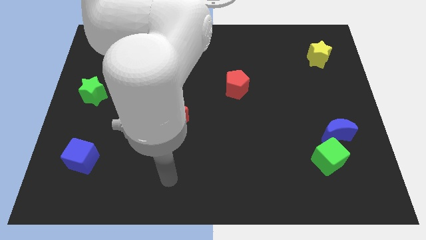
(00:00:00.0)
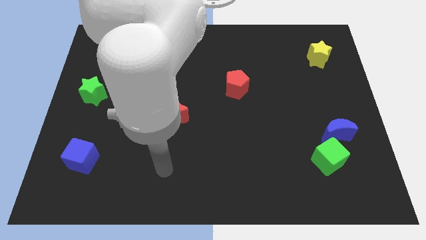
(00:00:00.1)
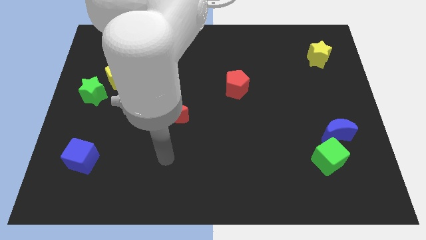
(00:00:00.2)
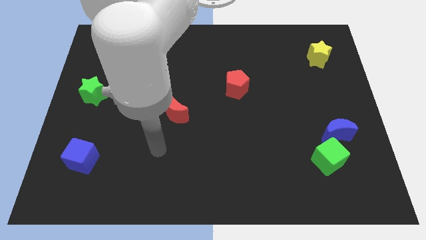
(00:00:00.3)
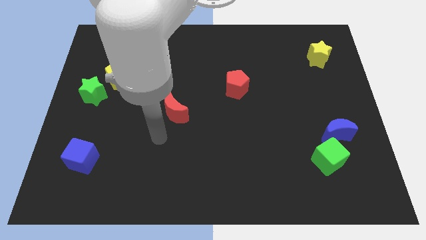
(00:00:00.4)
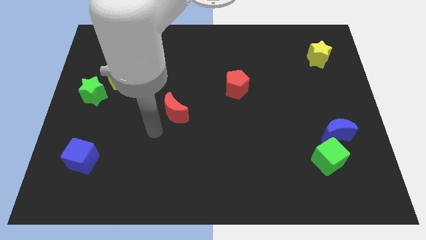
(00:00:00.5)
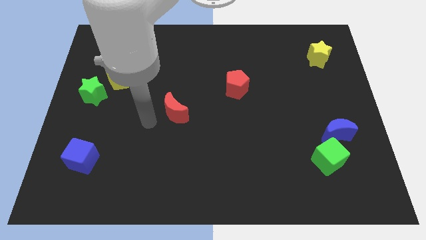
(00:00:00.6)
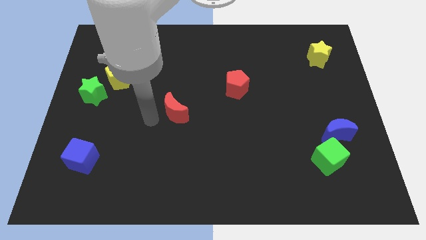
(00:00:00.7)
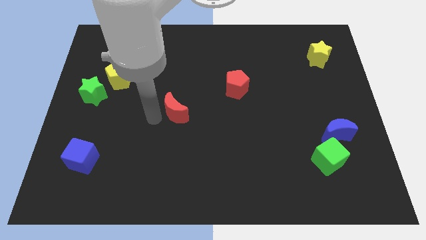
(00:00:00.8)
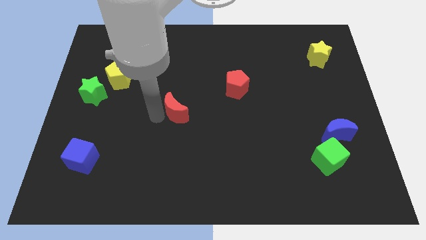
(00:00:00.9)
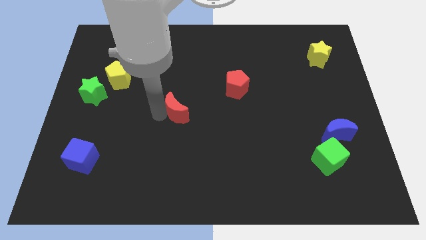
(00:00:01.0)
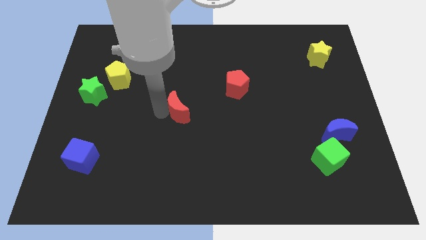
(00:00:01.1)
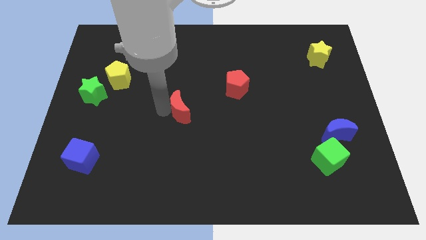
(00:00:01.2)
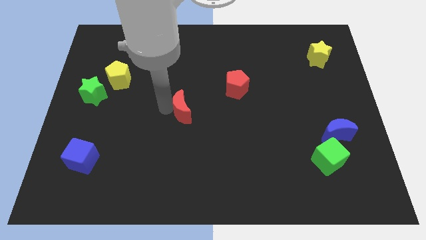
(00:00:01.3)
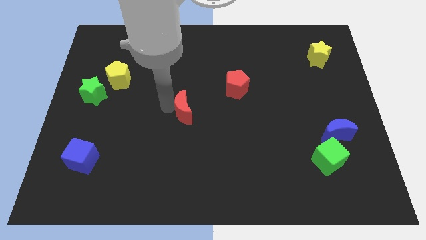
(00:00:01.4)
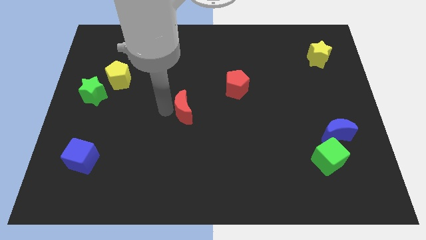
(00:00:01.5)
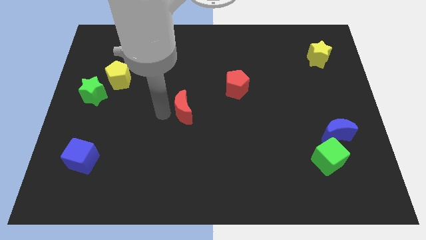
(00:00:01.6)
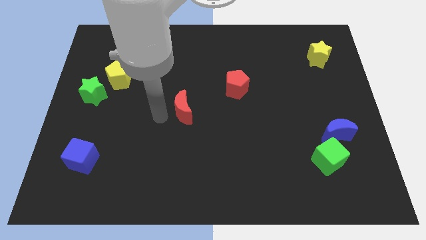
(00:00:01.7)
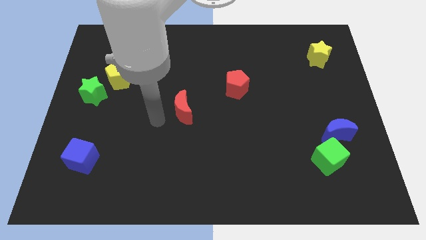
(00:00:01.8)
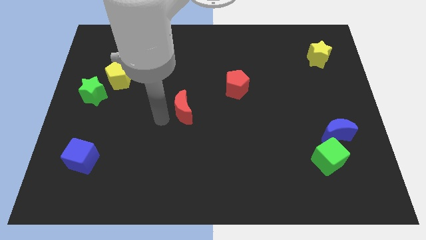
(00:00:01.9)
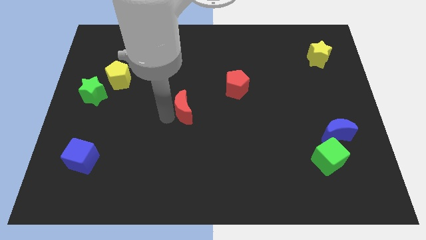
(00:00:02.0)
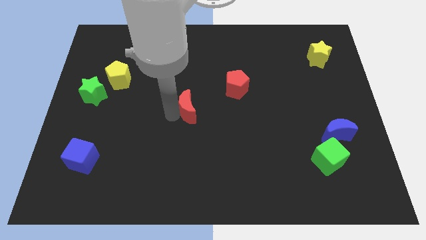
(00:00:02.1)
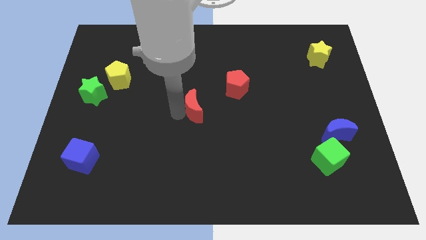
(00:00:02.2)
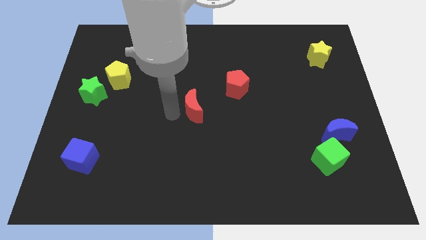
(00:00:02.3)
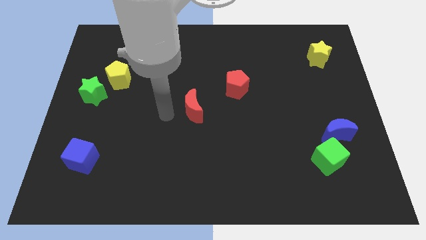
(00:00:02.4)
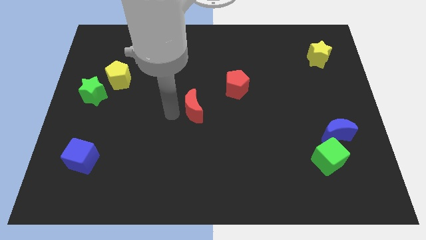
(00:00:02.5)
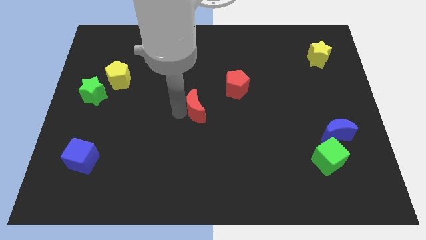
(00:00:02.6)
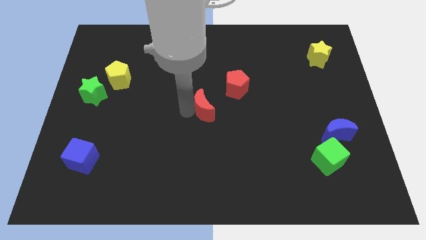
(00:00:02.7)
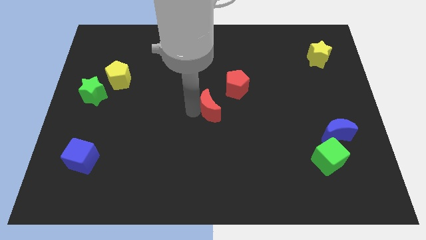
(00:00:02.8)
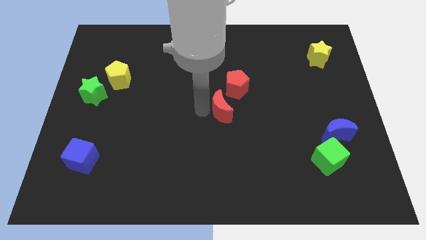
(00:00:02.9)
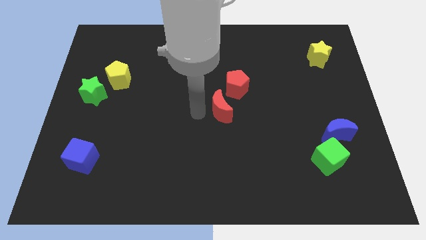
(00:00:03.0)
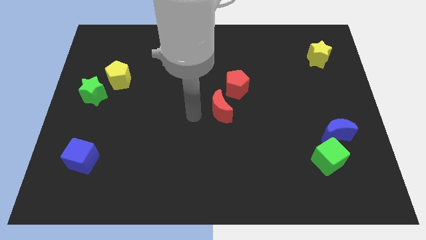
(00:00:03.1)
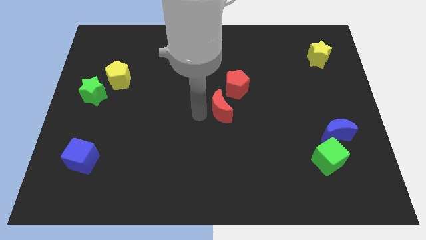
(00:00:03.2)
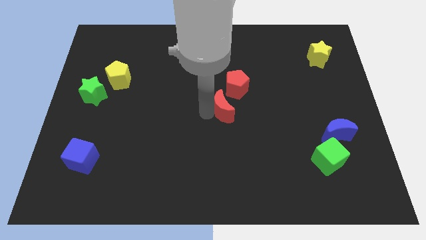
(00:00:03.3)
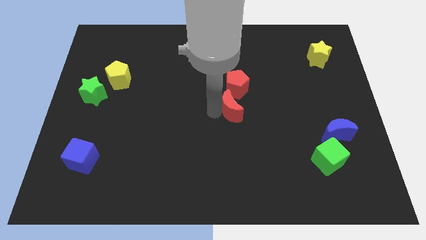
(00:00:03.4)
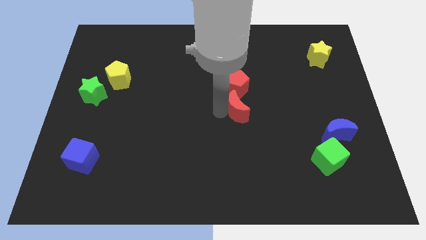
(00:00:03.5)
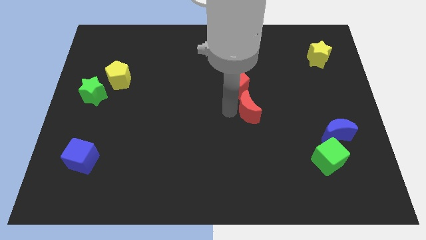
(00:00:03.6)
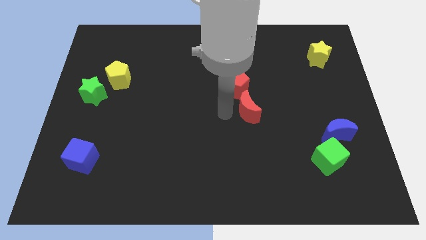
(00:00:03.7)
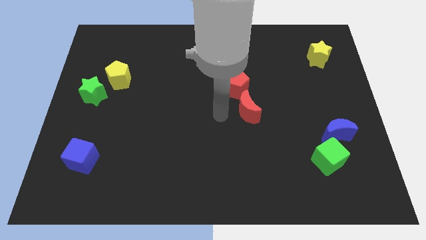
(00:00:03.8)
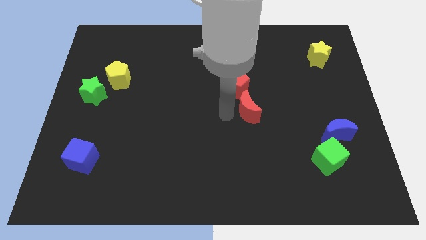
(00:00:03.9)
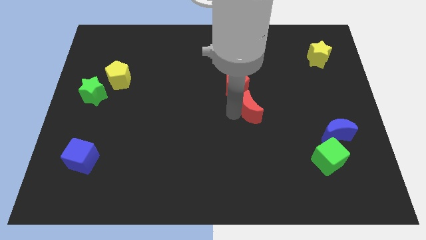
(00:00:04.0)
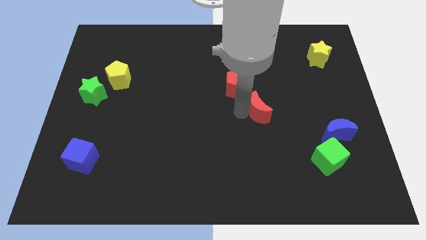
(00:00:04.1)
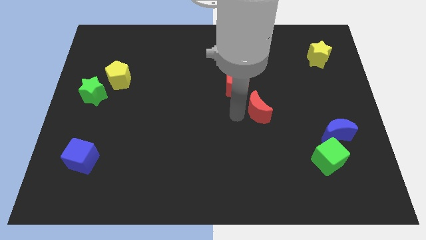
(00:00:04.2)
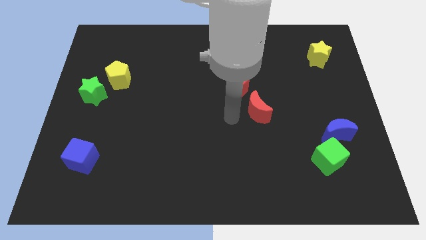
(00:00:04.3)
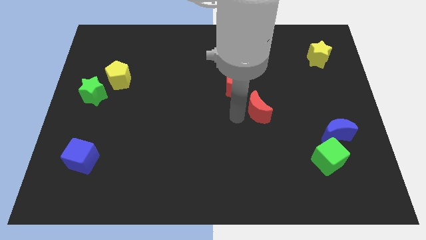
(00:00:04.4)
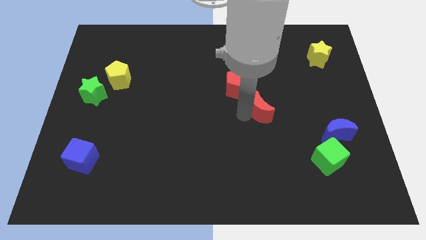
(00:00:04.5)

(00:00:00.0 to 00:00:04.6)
push the red moon right

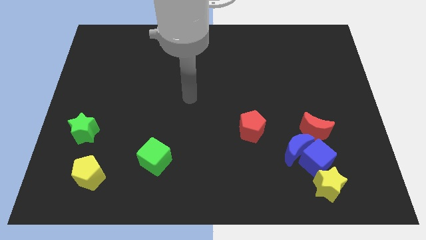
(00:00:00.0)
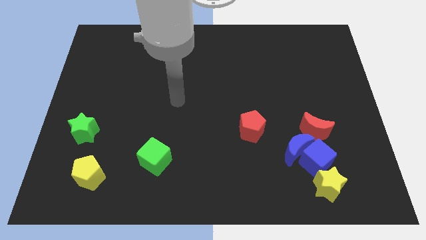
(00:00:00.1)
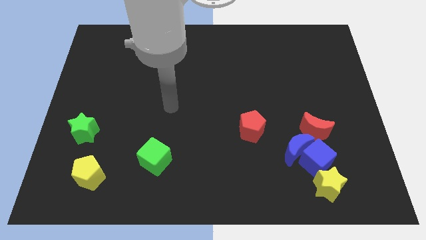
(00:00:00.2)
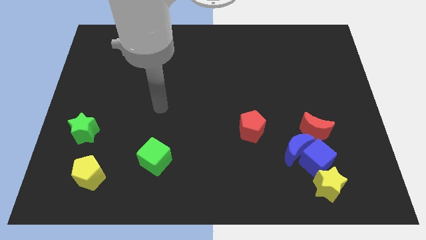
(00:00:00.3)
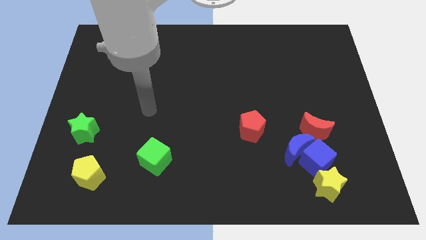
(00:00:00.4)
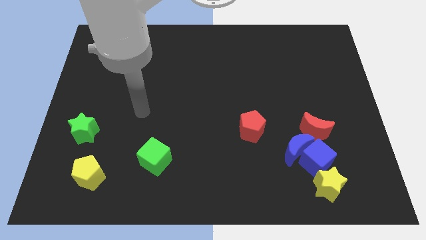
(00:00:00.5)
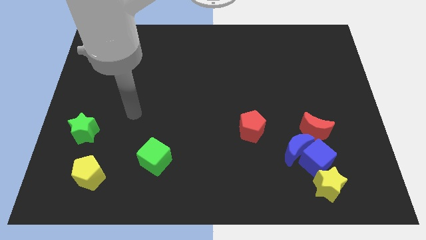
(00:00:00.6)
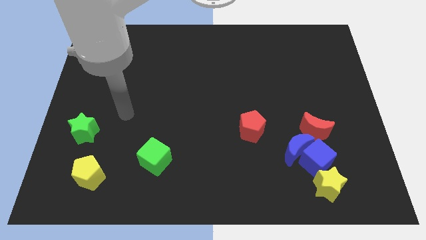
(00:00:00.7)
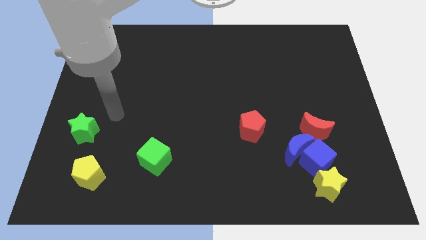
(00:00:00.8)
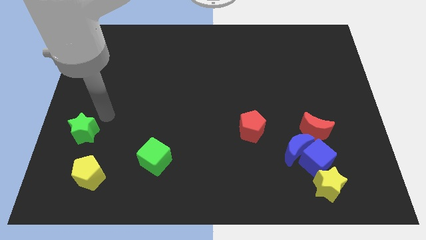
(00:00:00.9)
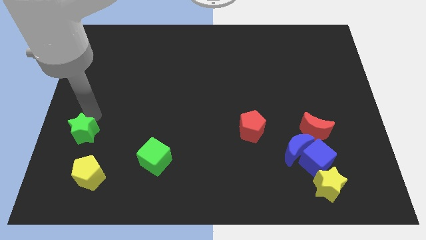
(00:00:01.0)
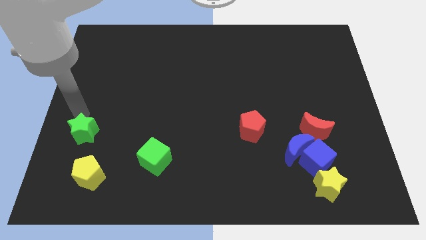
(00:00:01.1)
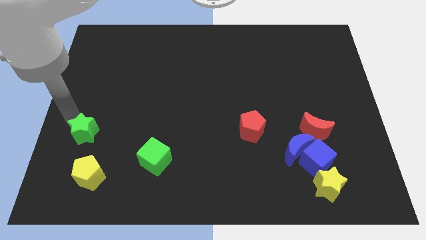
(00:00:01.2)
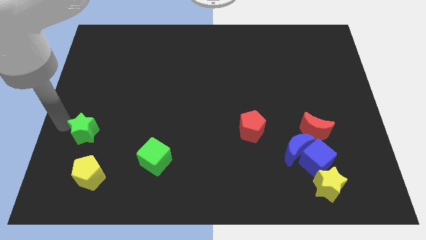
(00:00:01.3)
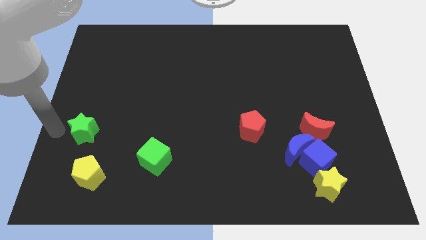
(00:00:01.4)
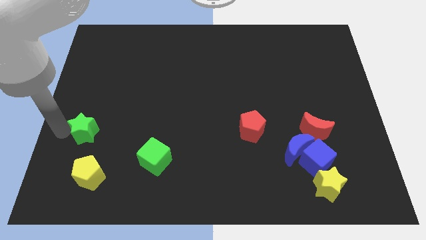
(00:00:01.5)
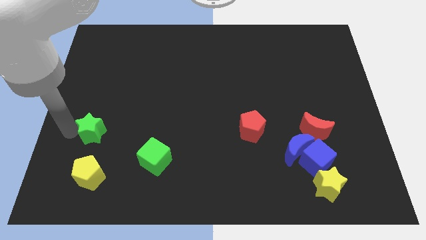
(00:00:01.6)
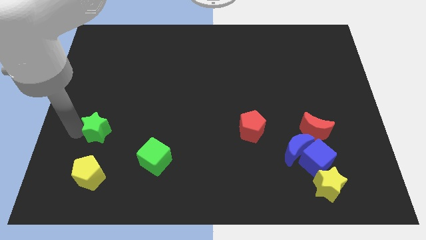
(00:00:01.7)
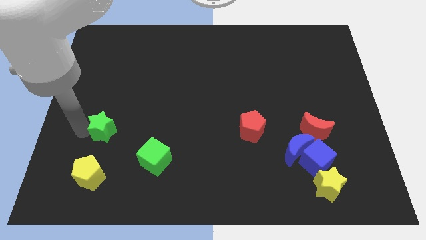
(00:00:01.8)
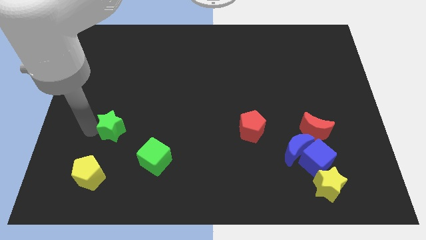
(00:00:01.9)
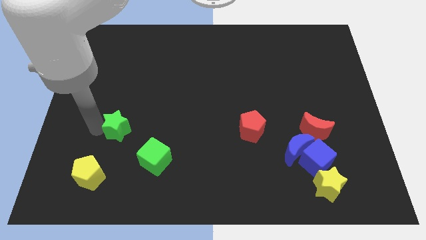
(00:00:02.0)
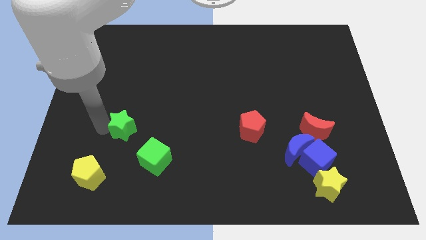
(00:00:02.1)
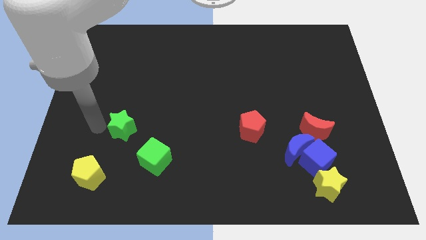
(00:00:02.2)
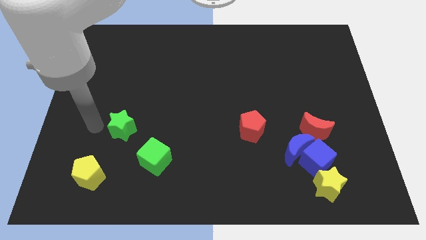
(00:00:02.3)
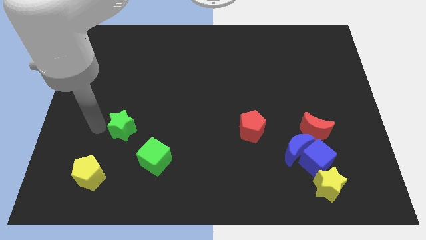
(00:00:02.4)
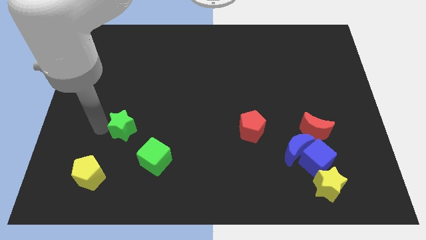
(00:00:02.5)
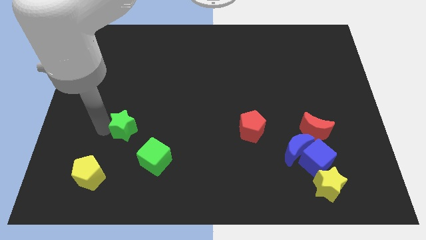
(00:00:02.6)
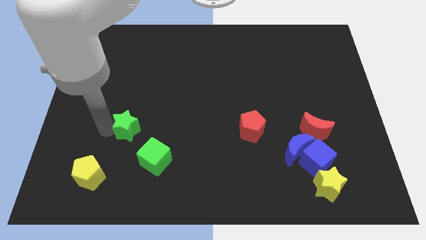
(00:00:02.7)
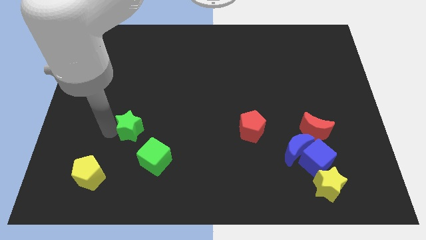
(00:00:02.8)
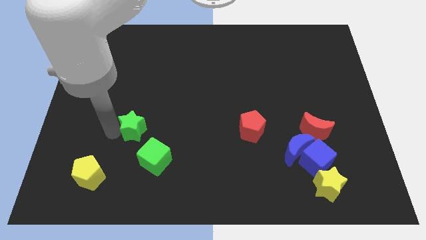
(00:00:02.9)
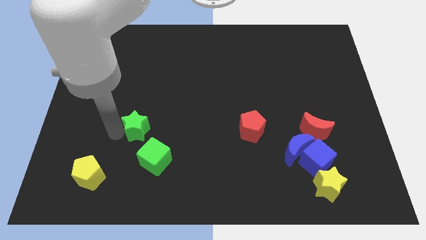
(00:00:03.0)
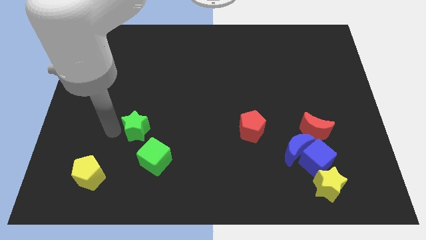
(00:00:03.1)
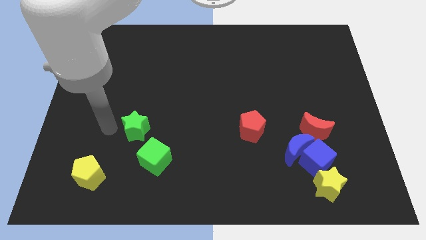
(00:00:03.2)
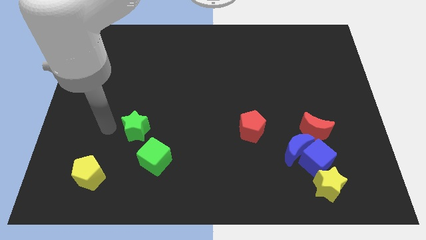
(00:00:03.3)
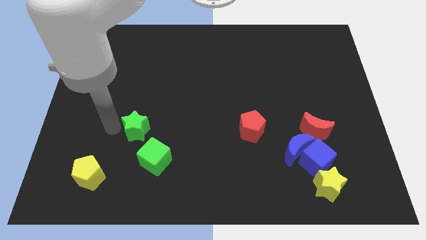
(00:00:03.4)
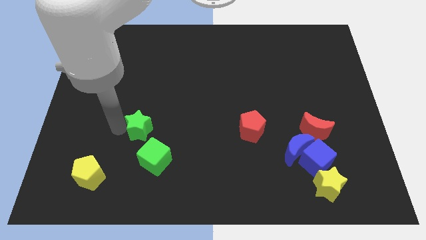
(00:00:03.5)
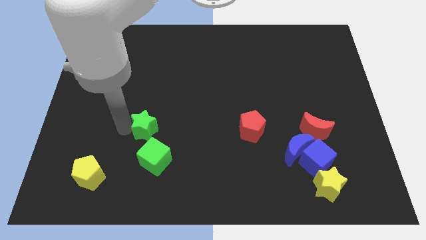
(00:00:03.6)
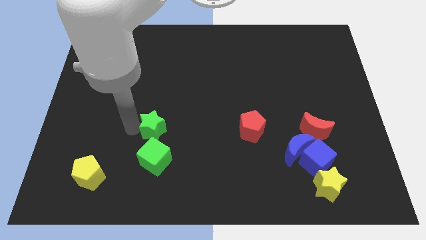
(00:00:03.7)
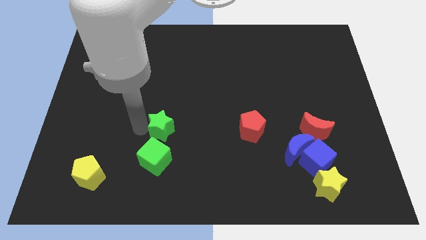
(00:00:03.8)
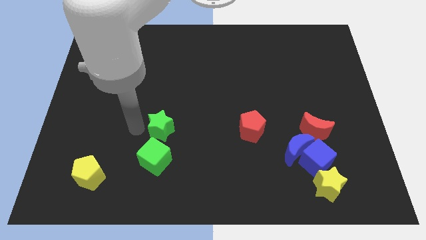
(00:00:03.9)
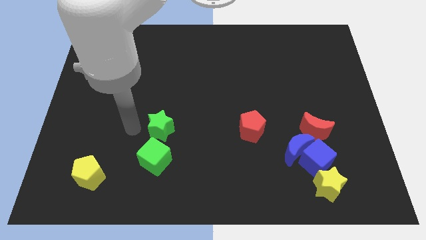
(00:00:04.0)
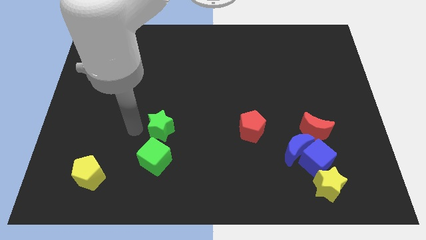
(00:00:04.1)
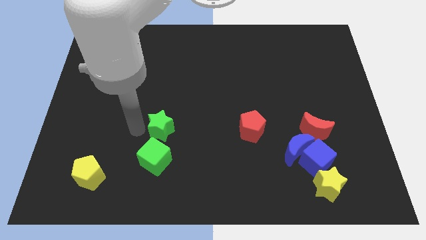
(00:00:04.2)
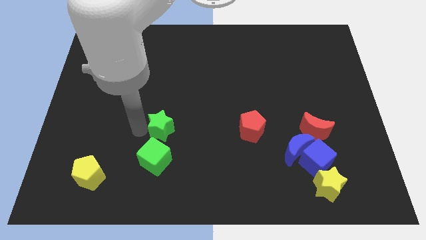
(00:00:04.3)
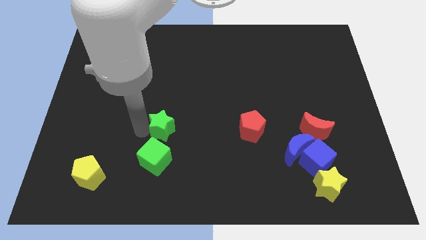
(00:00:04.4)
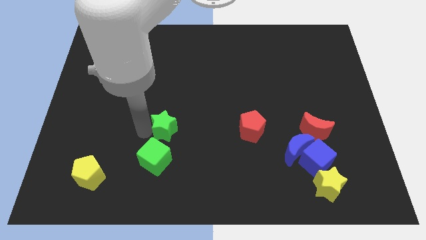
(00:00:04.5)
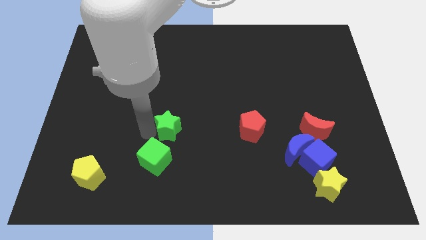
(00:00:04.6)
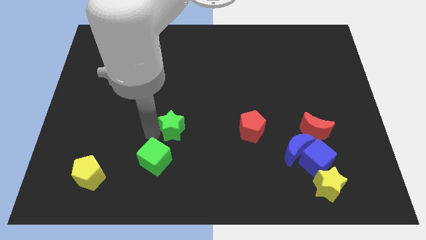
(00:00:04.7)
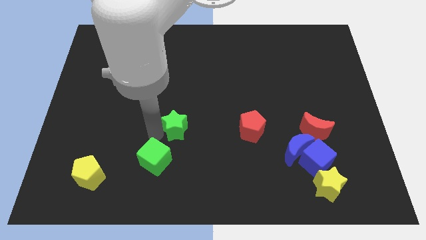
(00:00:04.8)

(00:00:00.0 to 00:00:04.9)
slide the green star to the right
